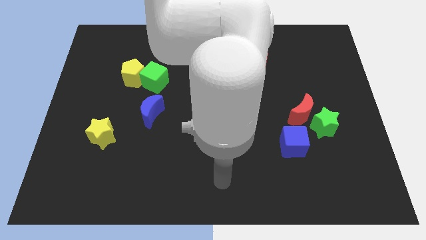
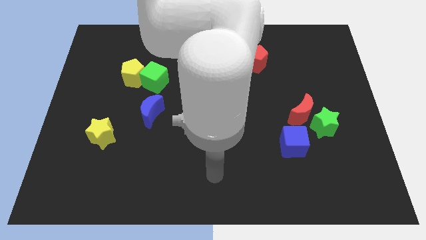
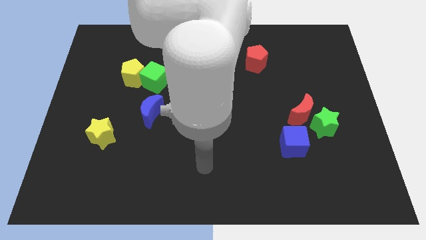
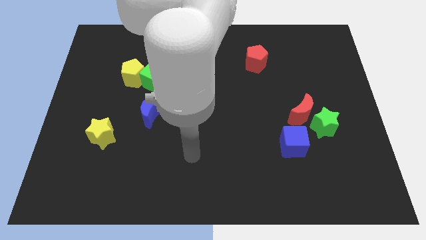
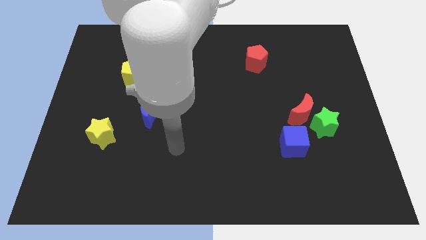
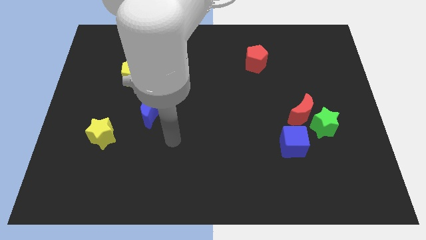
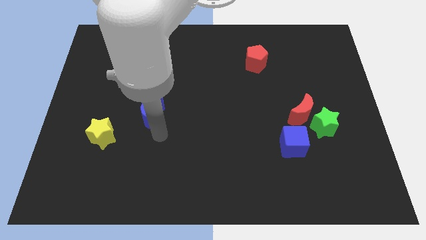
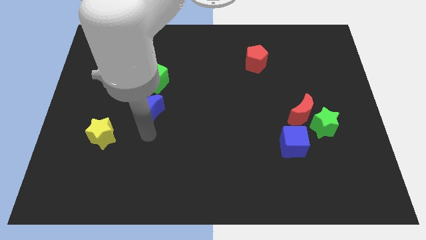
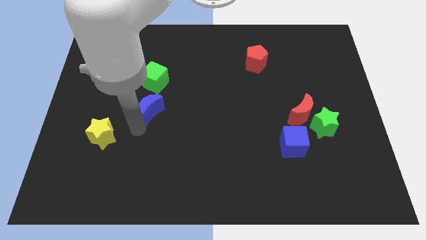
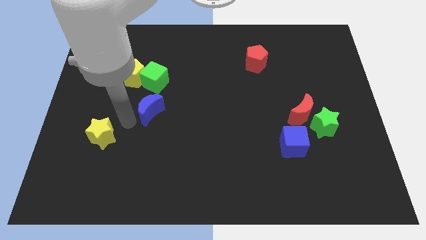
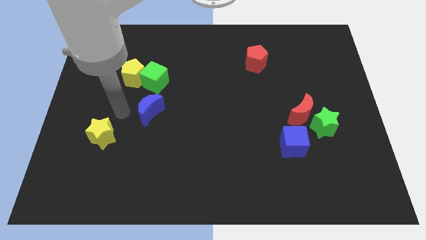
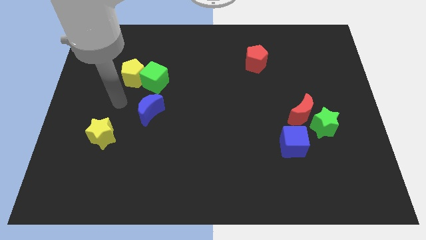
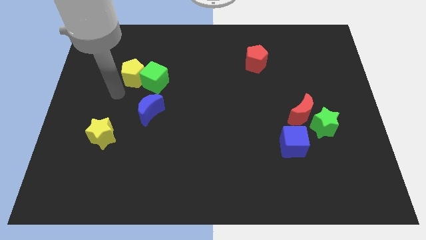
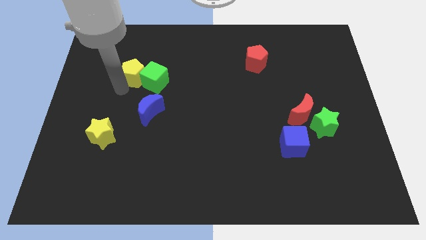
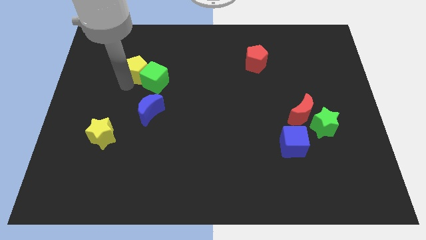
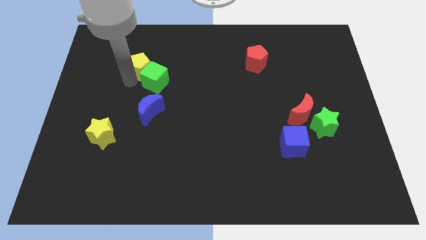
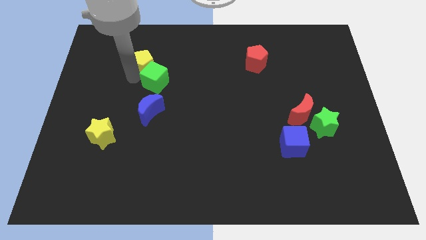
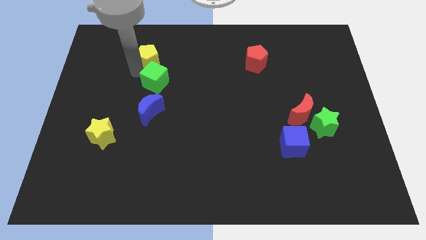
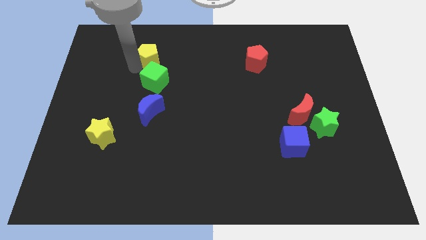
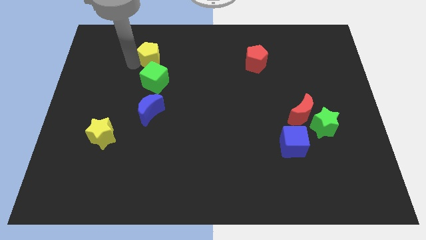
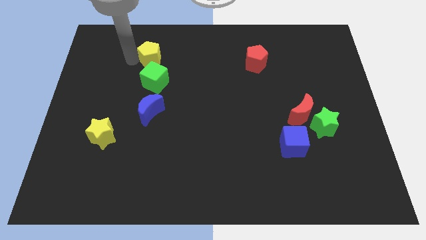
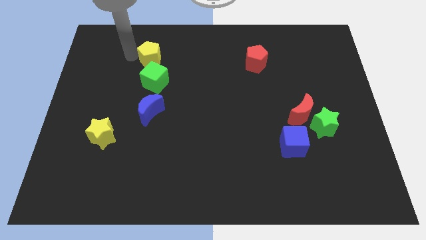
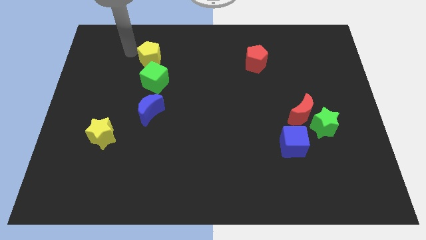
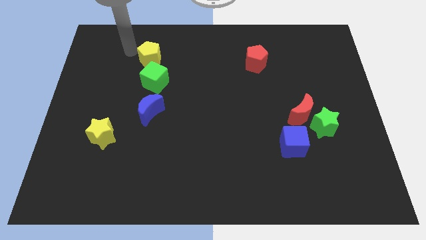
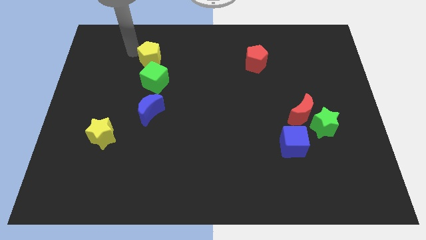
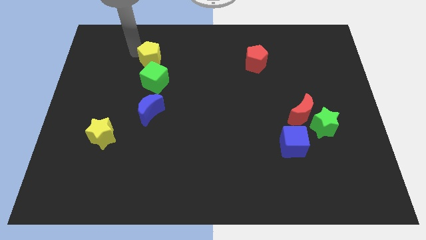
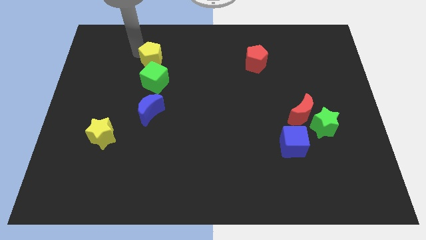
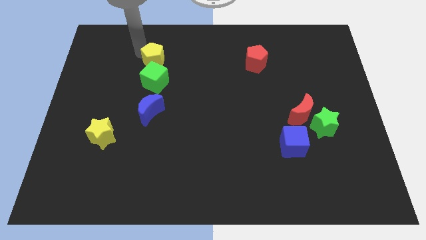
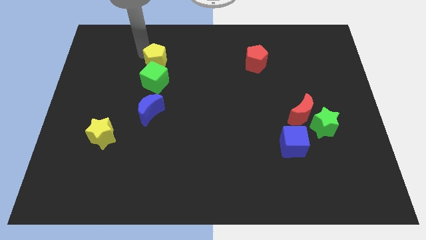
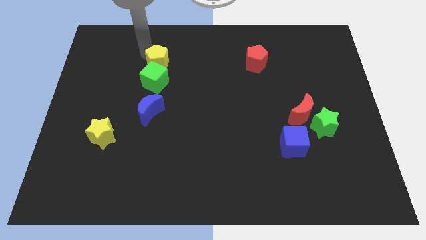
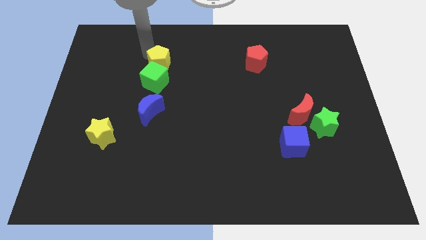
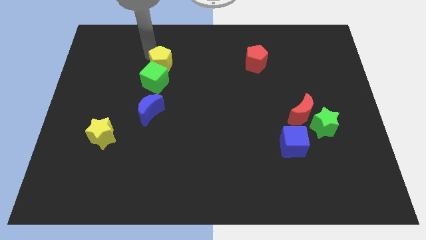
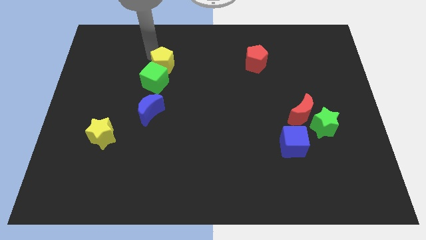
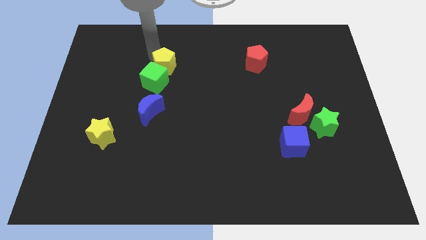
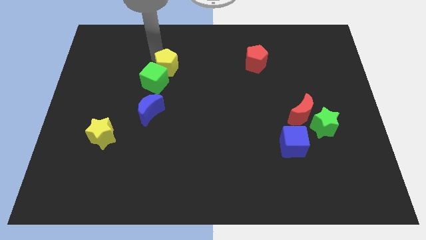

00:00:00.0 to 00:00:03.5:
move the yellow pentagon right slightly

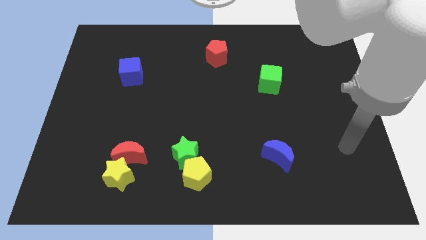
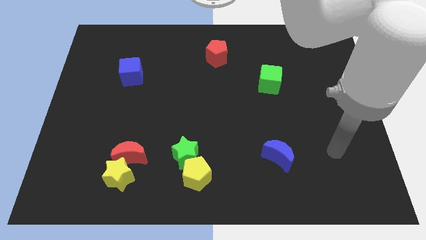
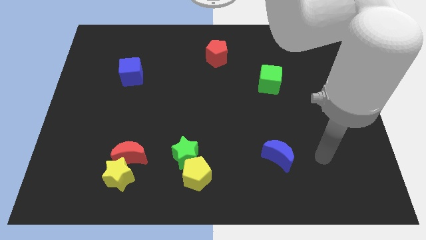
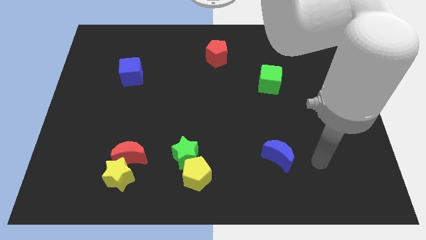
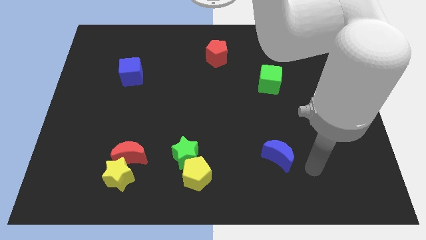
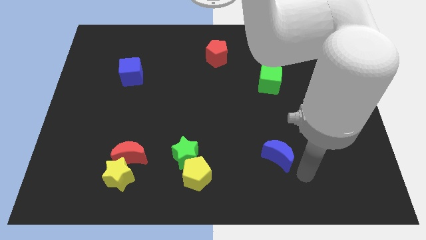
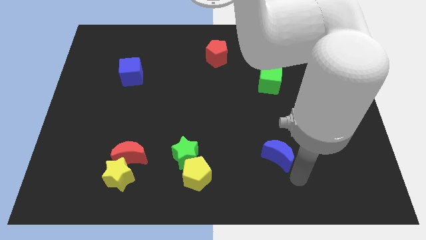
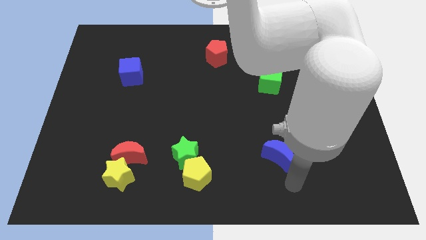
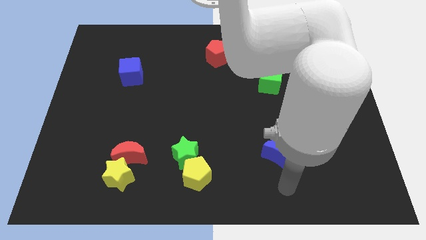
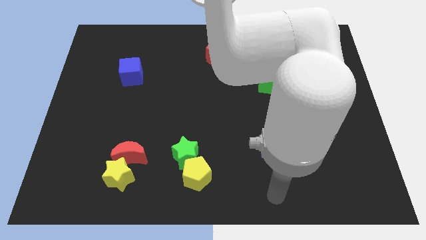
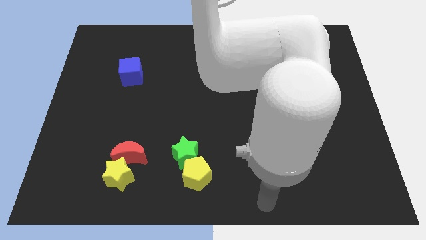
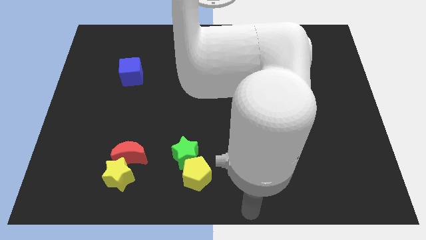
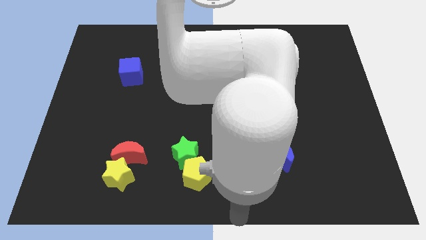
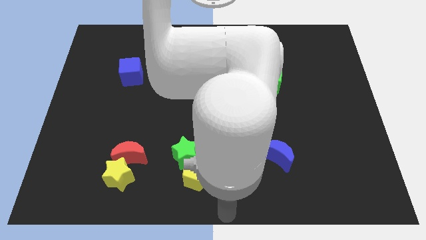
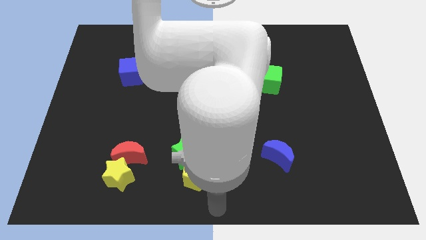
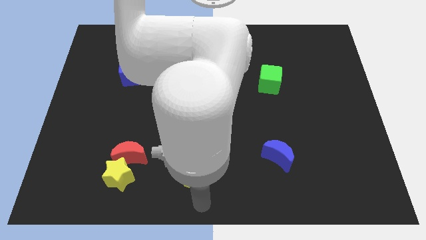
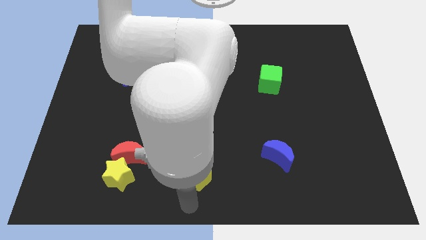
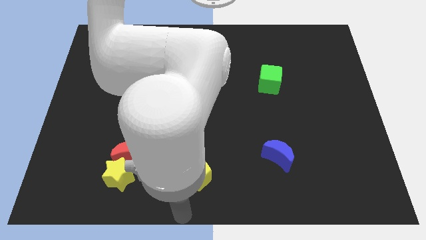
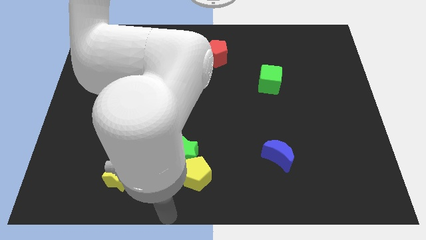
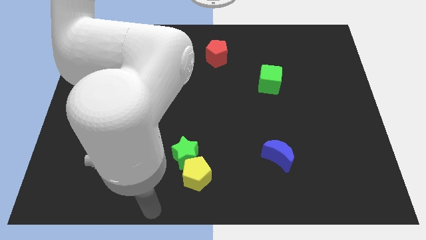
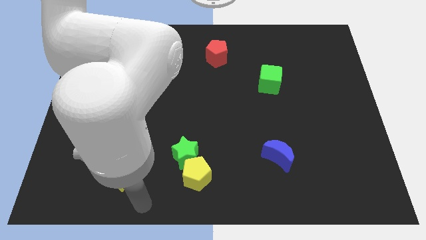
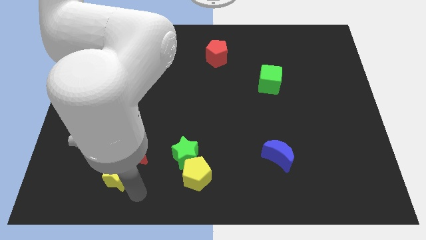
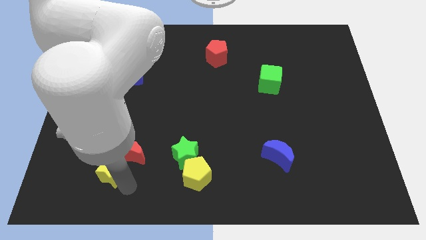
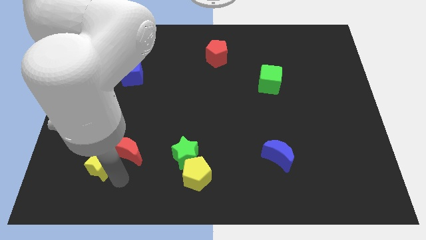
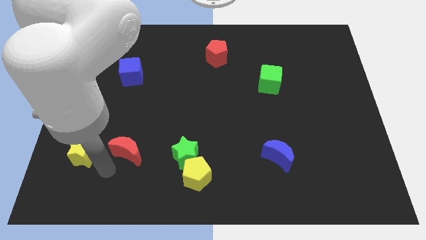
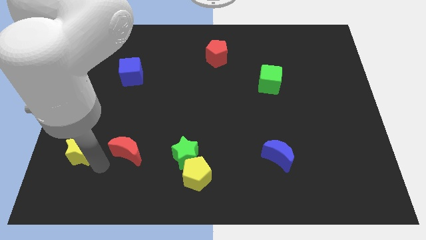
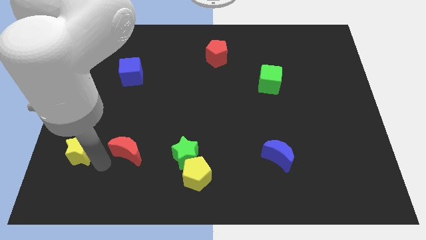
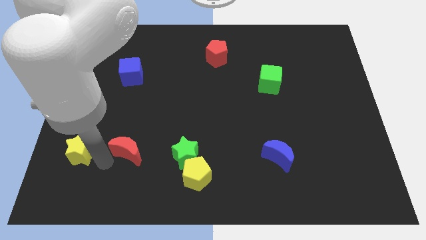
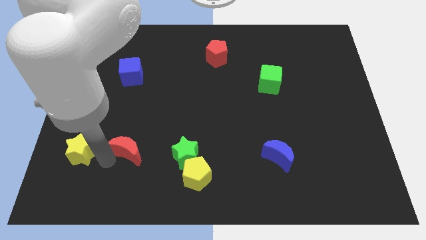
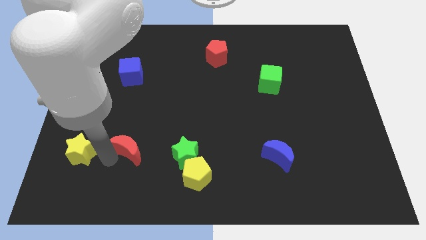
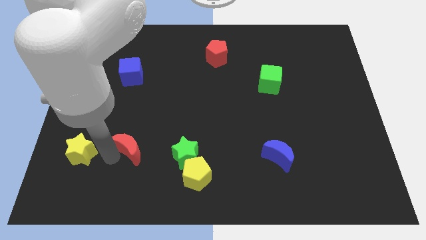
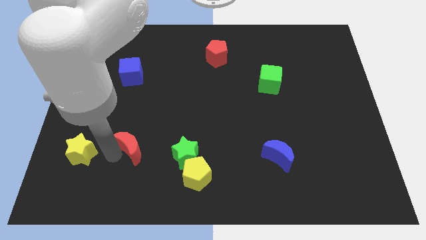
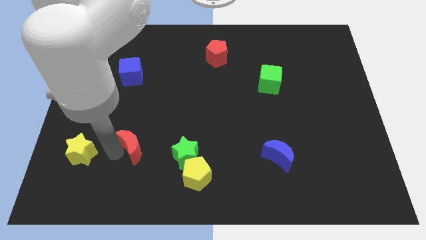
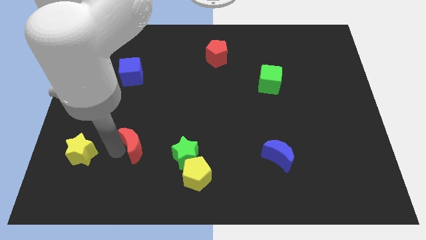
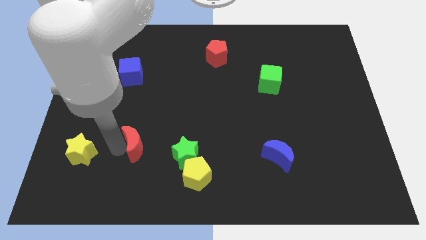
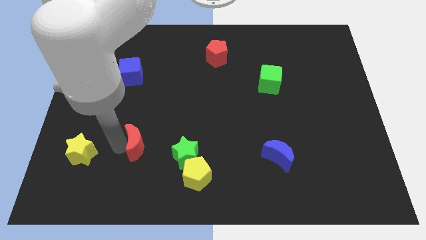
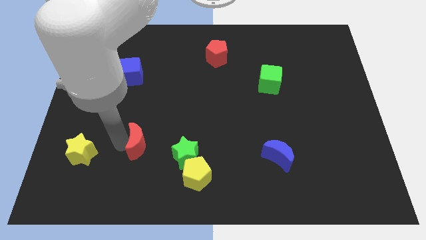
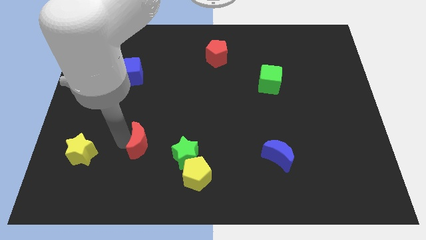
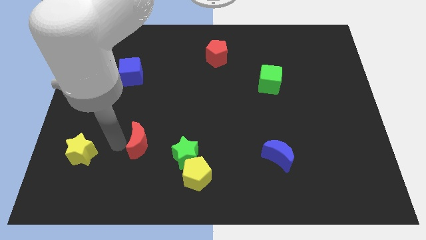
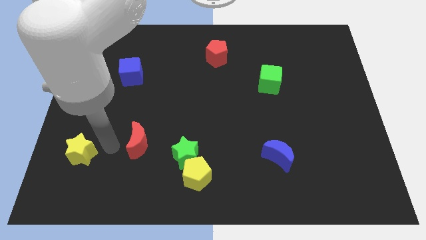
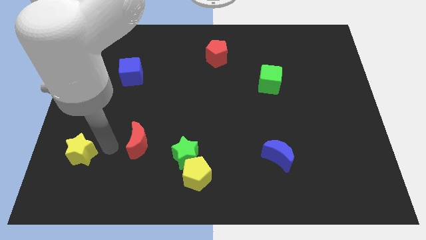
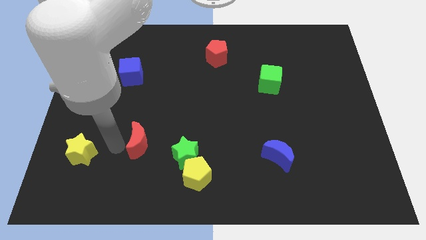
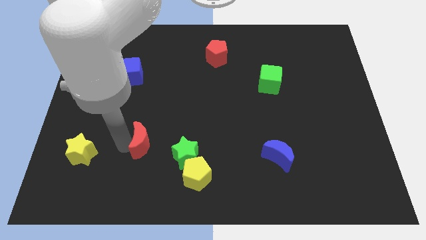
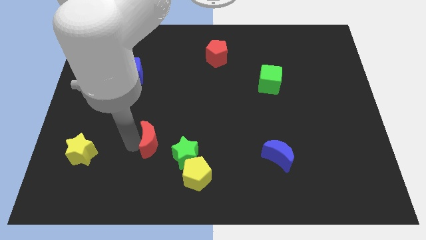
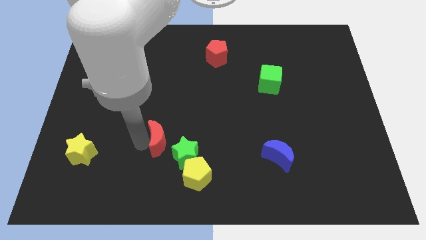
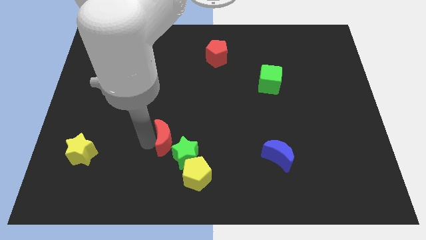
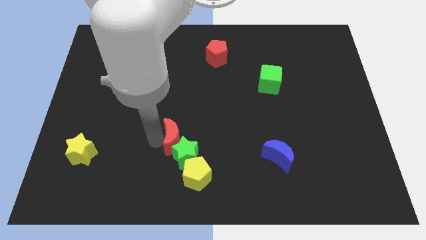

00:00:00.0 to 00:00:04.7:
slightly slide the red moon to the right
